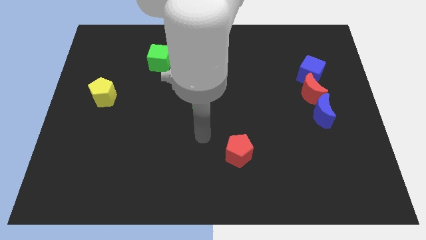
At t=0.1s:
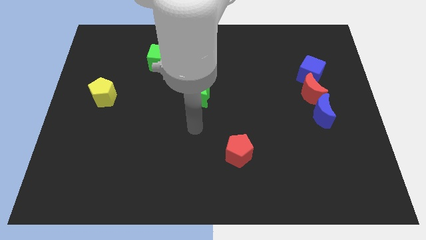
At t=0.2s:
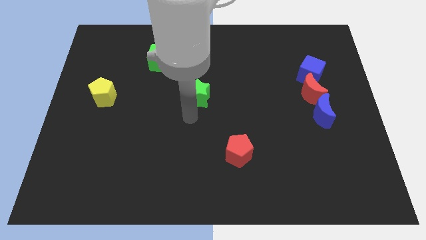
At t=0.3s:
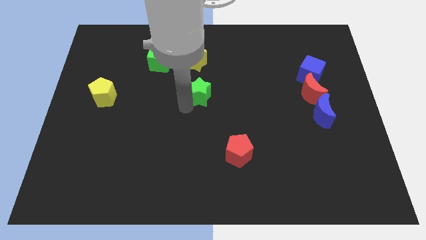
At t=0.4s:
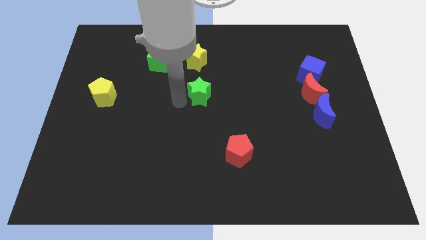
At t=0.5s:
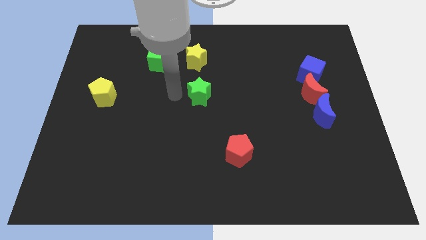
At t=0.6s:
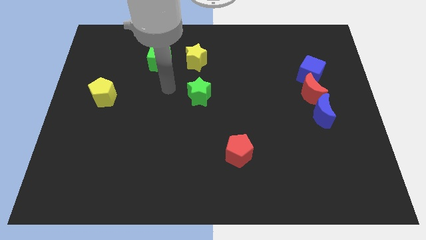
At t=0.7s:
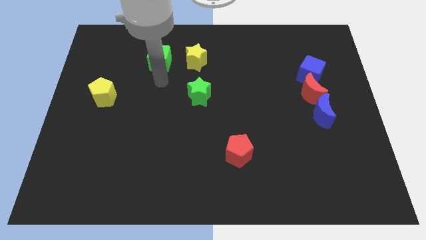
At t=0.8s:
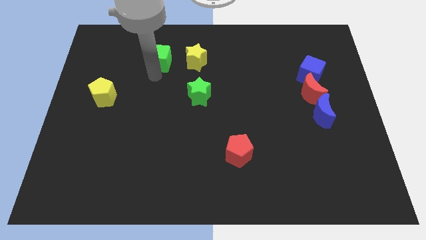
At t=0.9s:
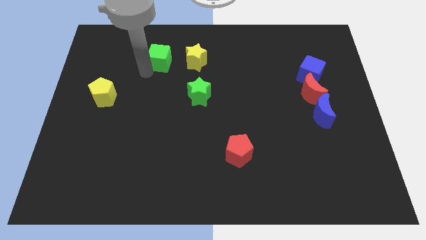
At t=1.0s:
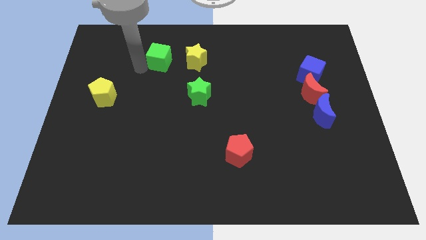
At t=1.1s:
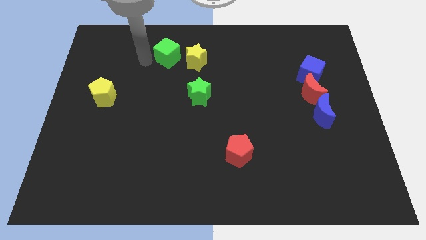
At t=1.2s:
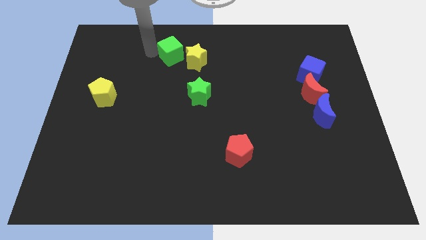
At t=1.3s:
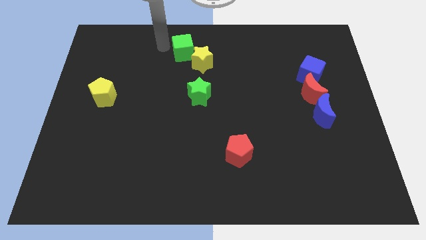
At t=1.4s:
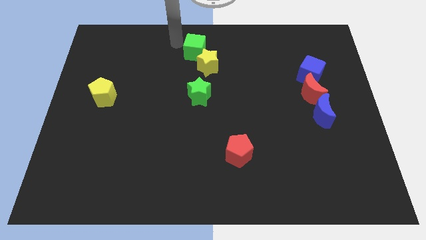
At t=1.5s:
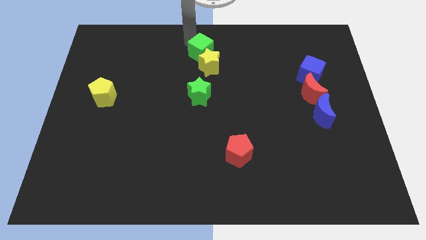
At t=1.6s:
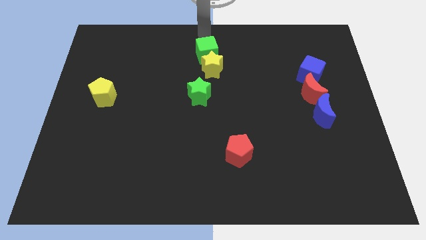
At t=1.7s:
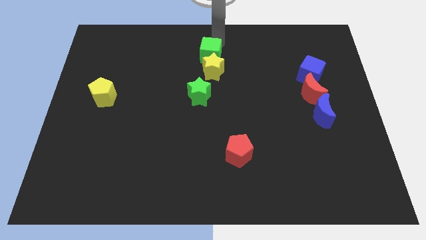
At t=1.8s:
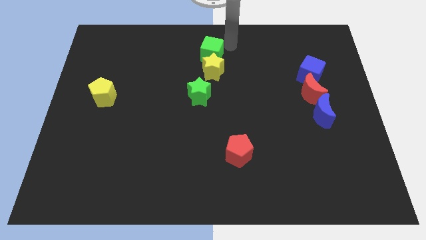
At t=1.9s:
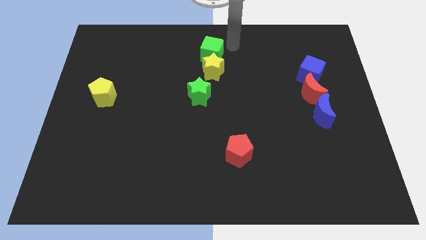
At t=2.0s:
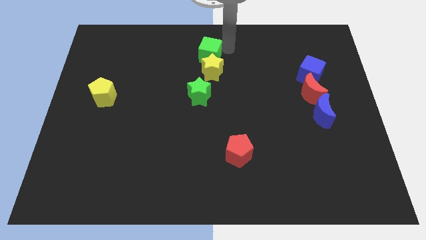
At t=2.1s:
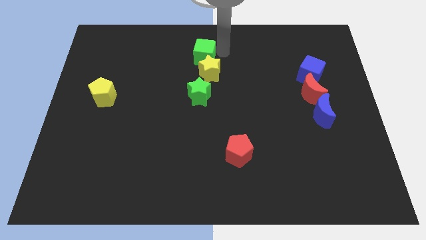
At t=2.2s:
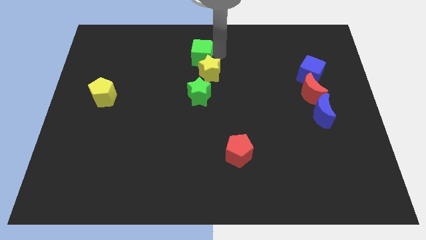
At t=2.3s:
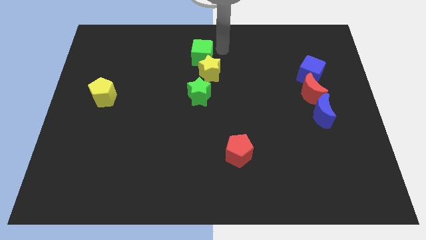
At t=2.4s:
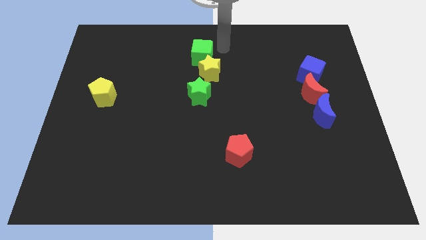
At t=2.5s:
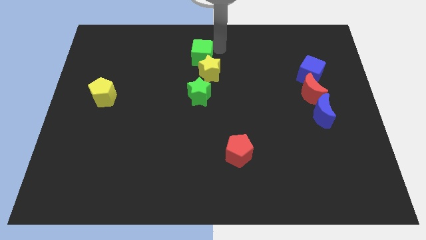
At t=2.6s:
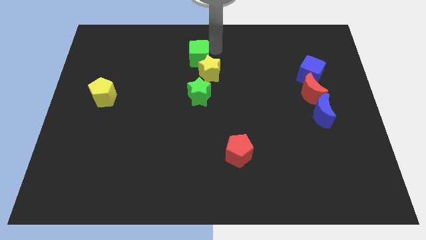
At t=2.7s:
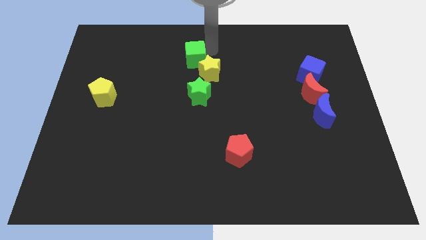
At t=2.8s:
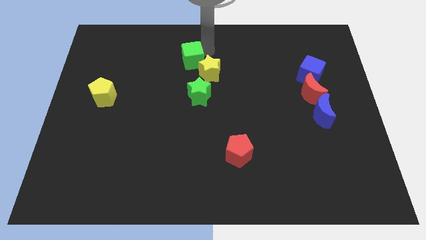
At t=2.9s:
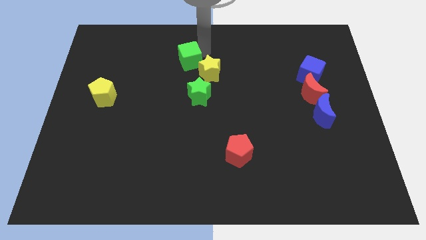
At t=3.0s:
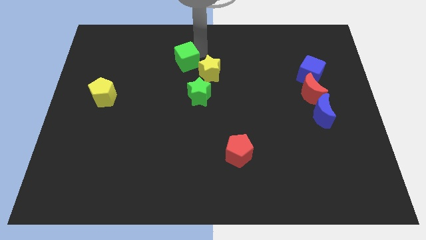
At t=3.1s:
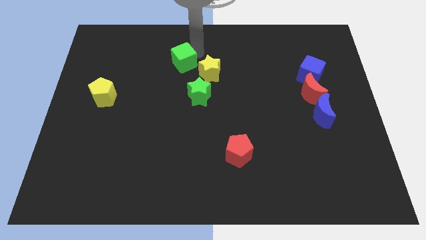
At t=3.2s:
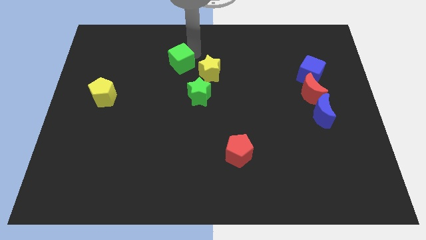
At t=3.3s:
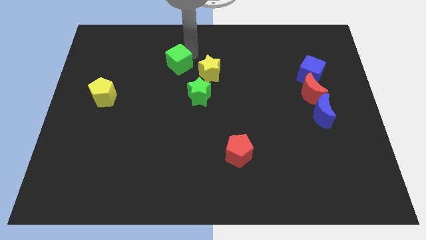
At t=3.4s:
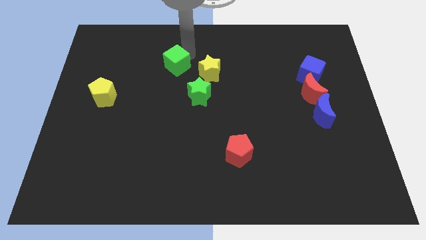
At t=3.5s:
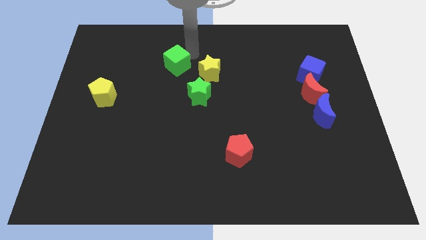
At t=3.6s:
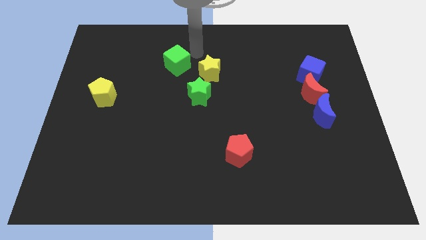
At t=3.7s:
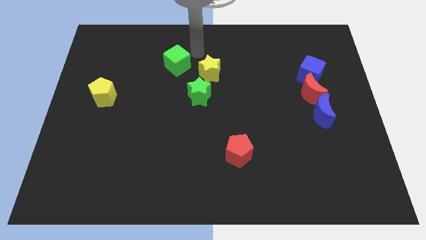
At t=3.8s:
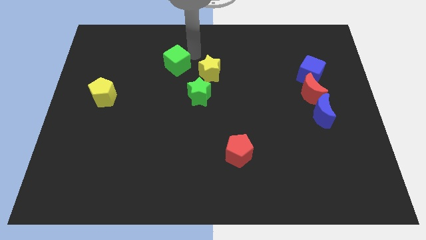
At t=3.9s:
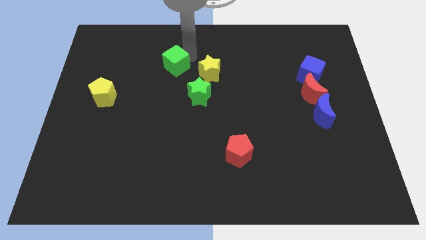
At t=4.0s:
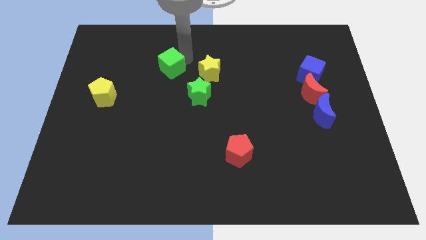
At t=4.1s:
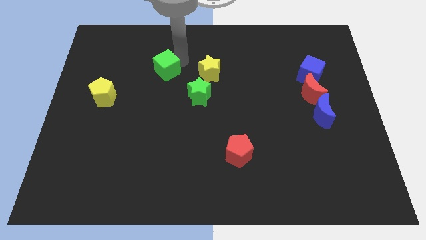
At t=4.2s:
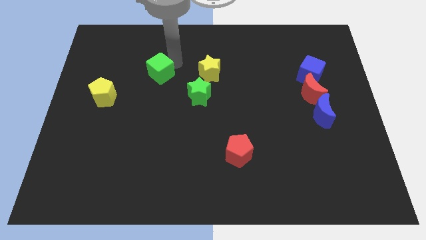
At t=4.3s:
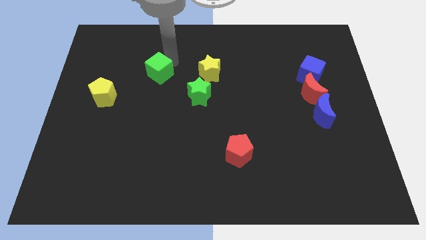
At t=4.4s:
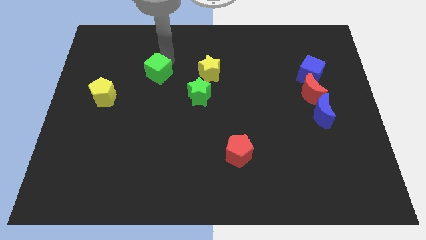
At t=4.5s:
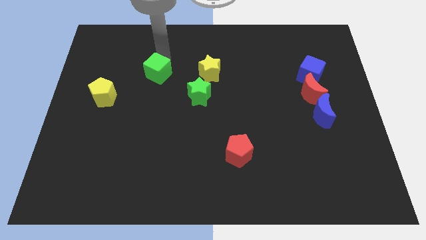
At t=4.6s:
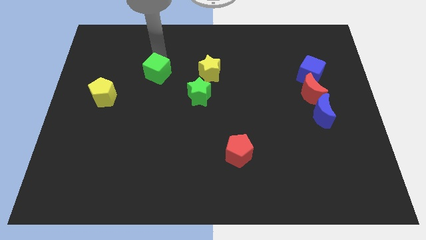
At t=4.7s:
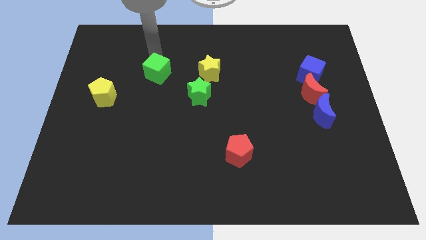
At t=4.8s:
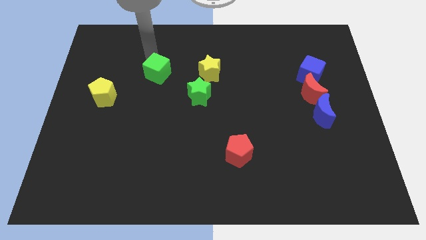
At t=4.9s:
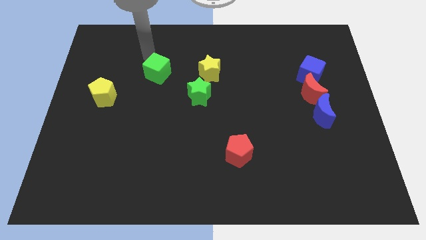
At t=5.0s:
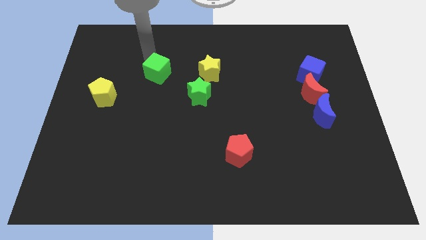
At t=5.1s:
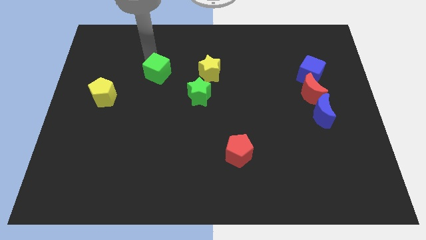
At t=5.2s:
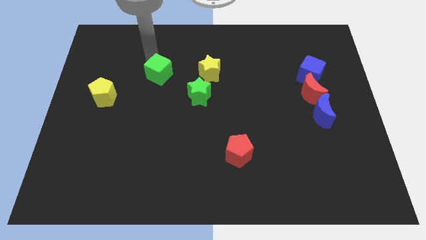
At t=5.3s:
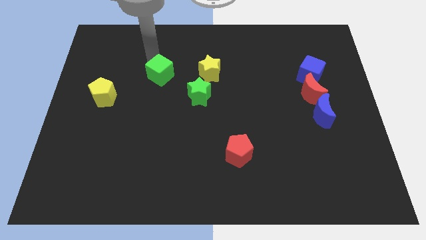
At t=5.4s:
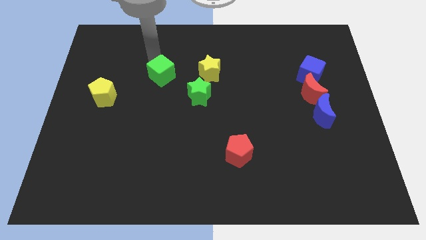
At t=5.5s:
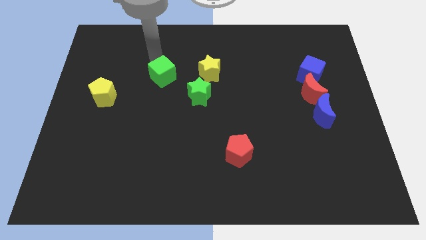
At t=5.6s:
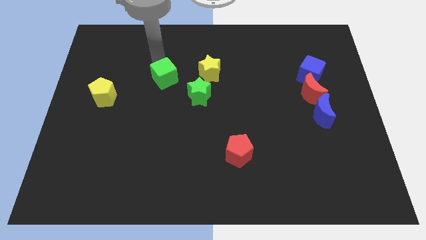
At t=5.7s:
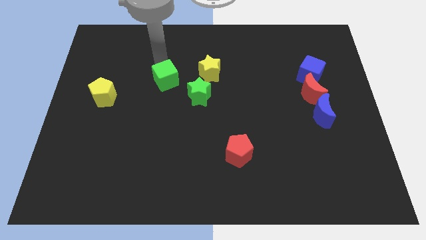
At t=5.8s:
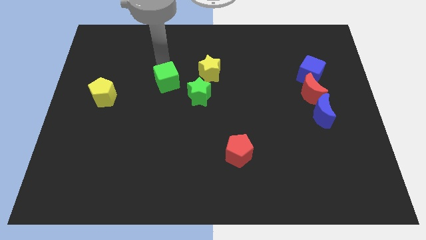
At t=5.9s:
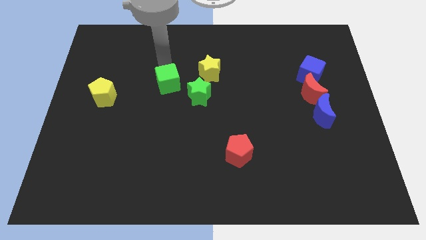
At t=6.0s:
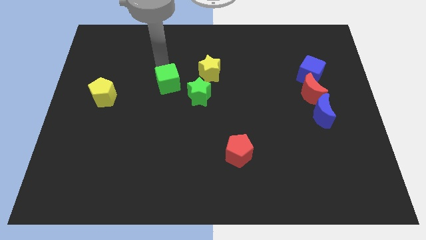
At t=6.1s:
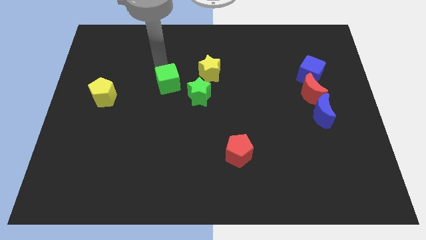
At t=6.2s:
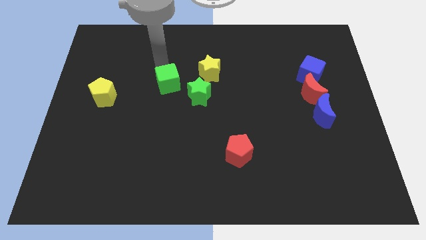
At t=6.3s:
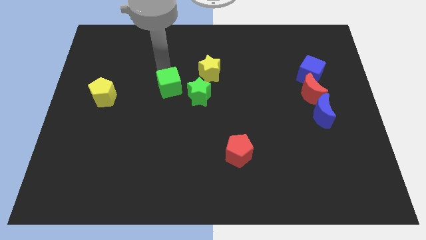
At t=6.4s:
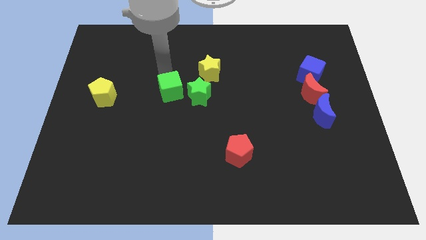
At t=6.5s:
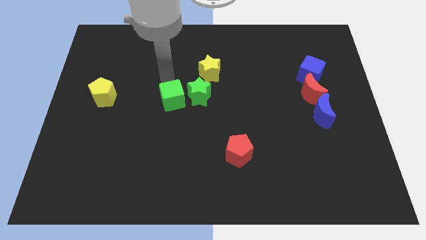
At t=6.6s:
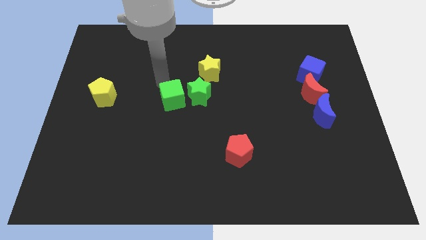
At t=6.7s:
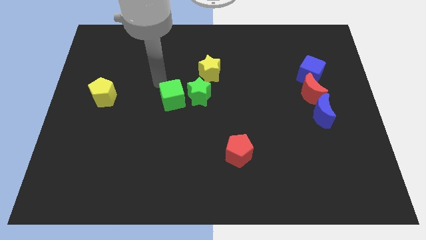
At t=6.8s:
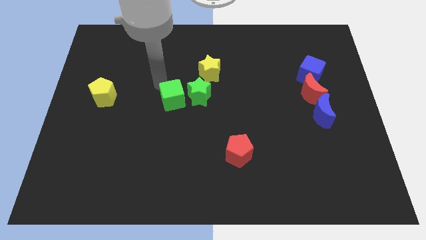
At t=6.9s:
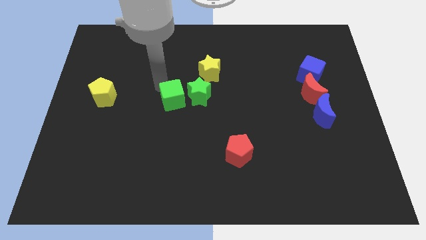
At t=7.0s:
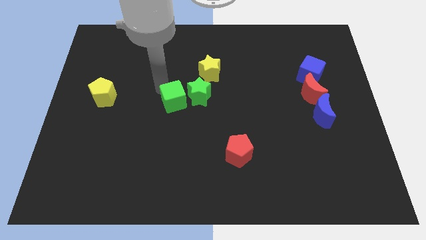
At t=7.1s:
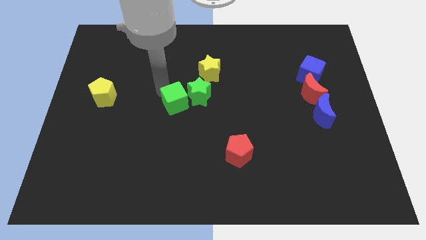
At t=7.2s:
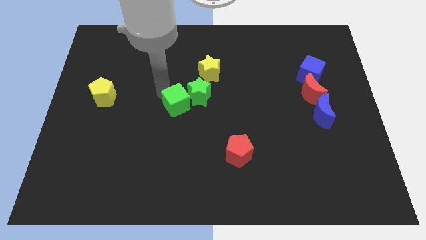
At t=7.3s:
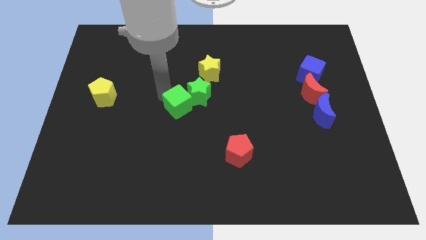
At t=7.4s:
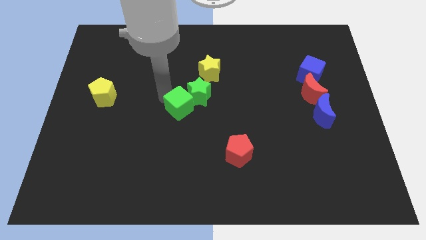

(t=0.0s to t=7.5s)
push the green cube to the bottom side of the green star
